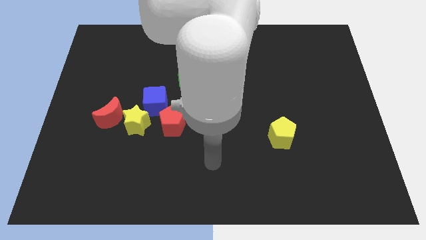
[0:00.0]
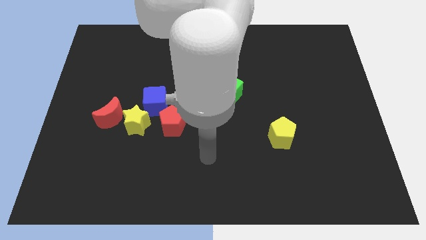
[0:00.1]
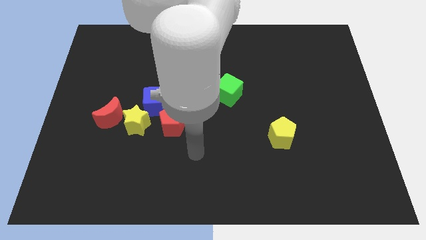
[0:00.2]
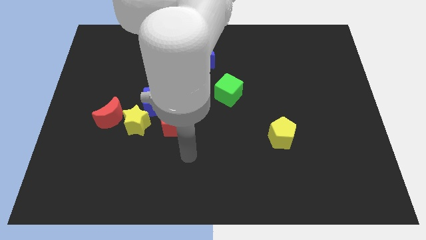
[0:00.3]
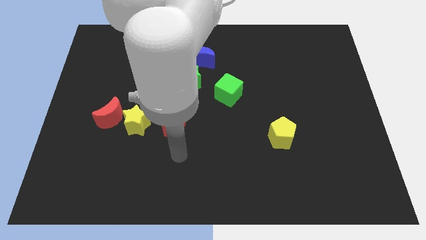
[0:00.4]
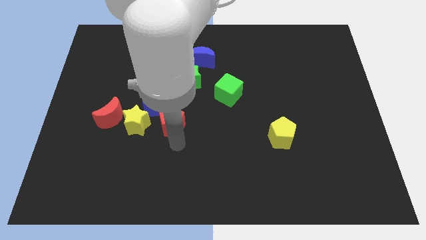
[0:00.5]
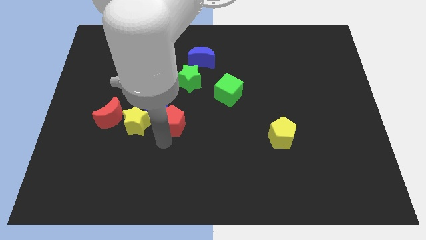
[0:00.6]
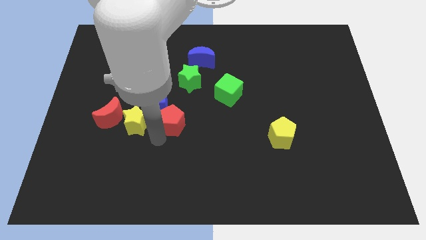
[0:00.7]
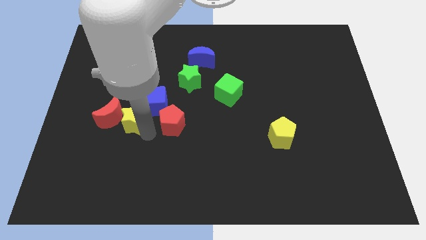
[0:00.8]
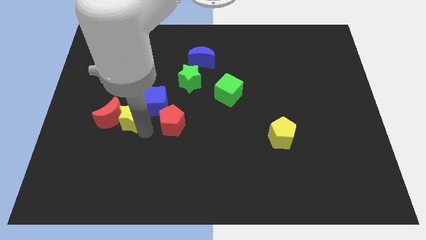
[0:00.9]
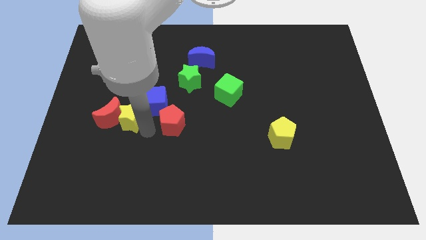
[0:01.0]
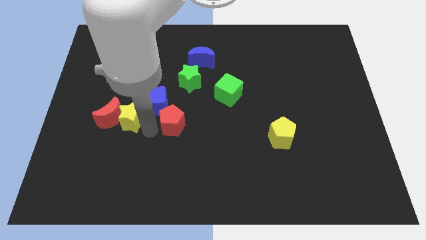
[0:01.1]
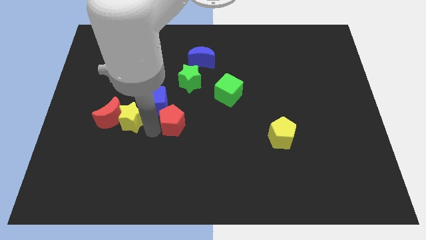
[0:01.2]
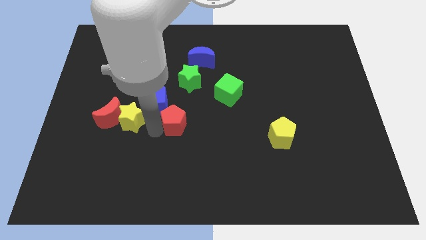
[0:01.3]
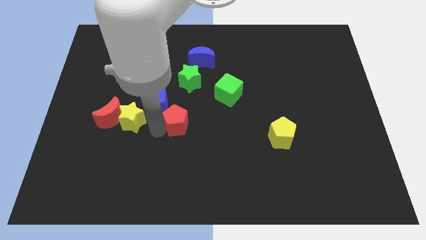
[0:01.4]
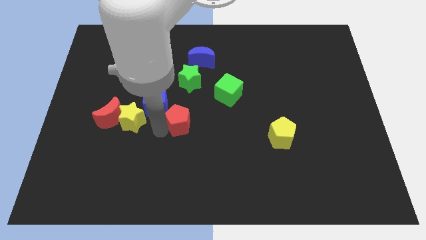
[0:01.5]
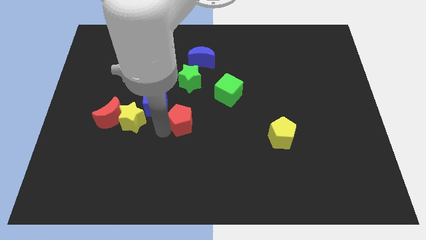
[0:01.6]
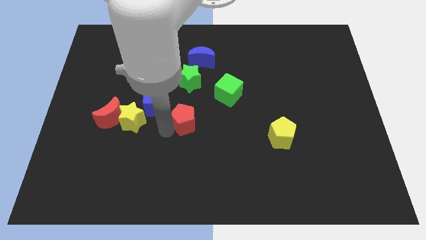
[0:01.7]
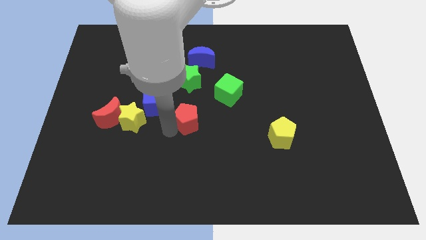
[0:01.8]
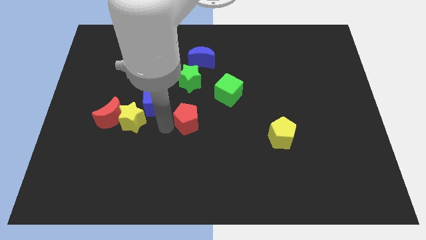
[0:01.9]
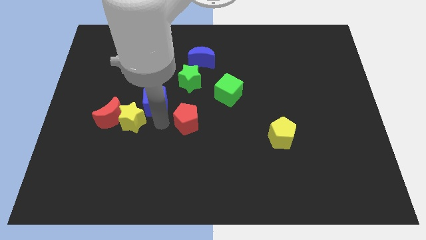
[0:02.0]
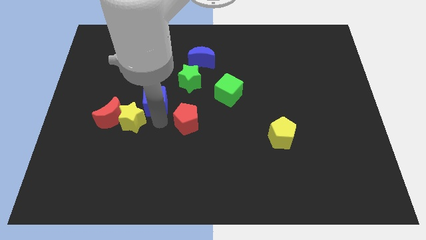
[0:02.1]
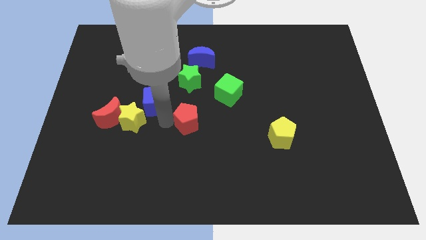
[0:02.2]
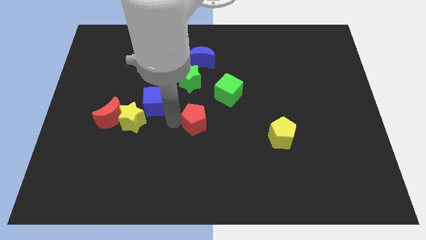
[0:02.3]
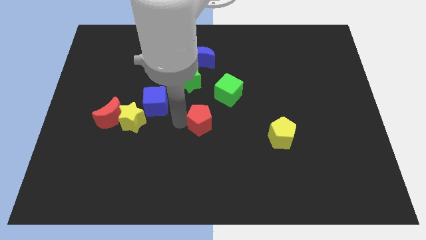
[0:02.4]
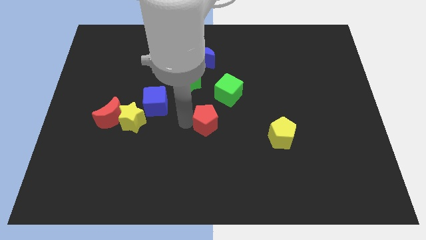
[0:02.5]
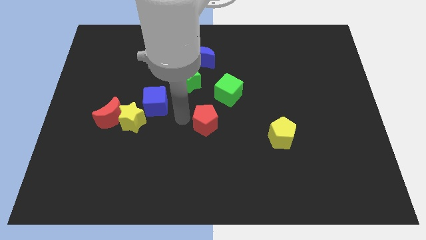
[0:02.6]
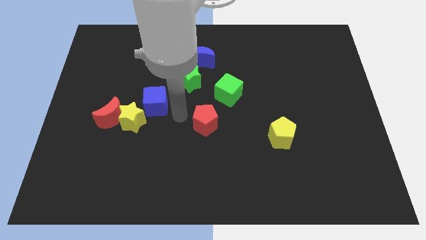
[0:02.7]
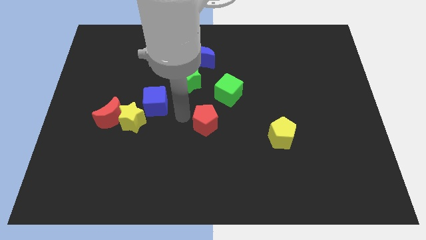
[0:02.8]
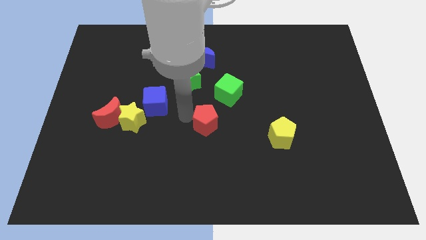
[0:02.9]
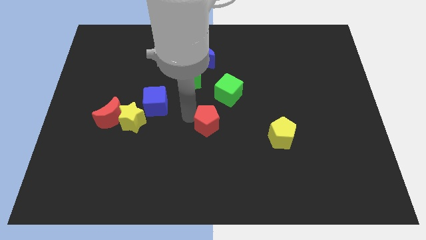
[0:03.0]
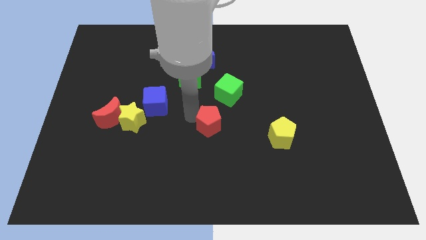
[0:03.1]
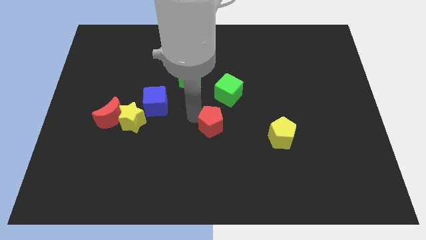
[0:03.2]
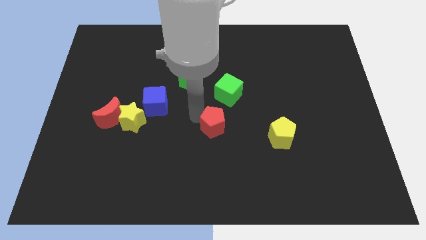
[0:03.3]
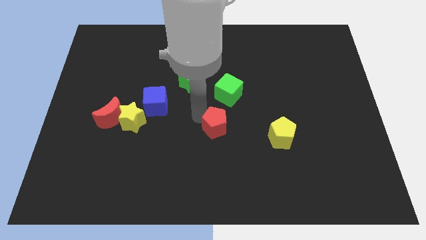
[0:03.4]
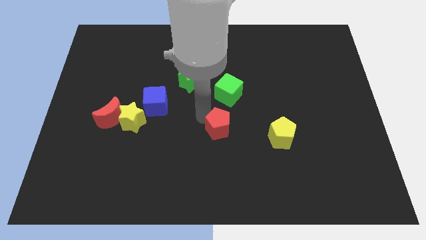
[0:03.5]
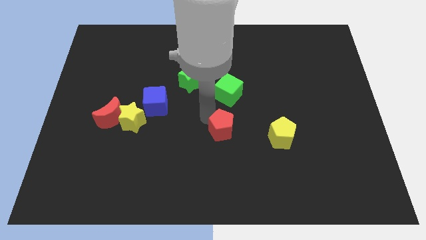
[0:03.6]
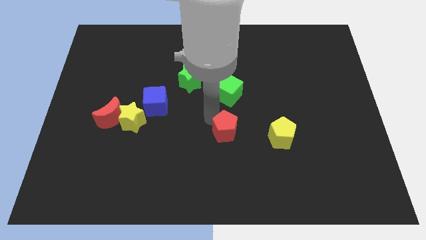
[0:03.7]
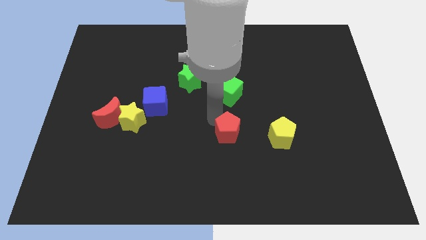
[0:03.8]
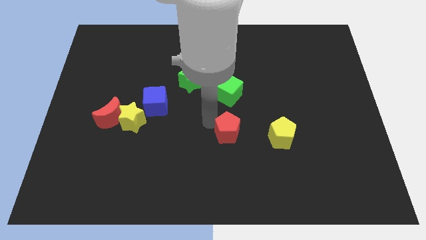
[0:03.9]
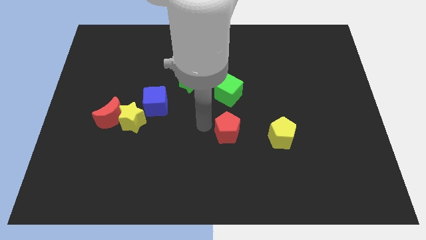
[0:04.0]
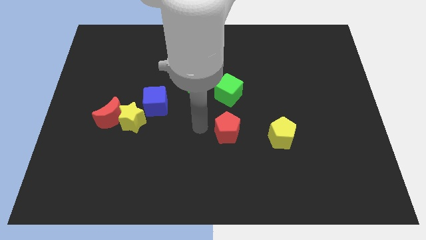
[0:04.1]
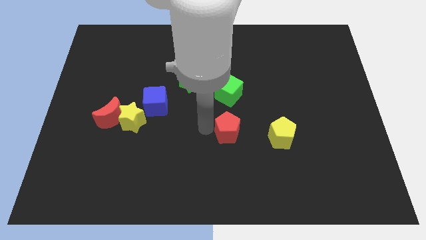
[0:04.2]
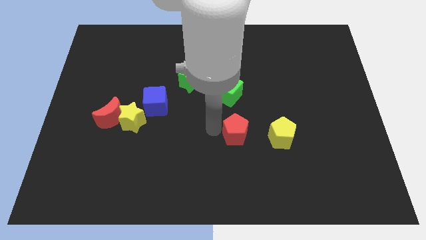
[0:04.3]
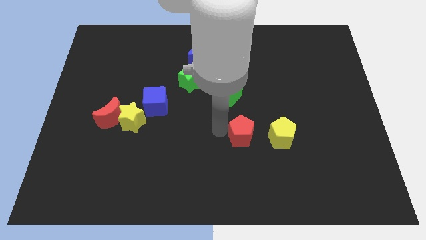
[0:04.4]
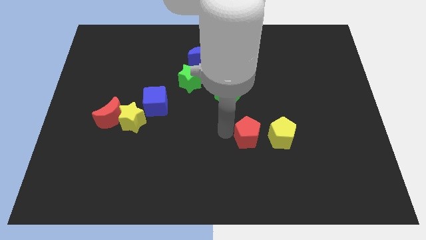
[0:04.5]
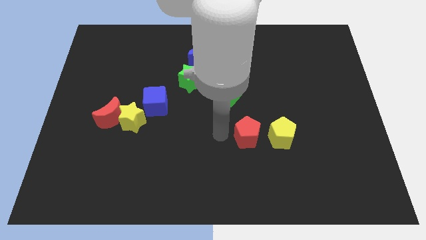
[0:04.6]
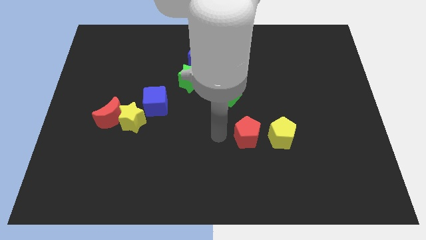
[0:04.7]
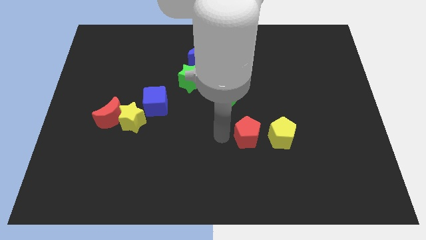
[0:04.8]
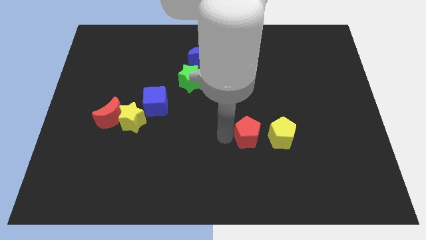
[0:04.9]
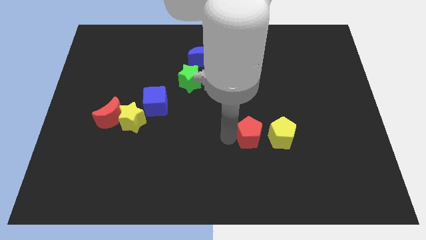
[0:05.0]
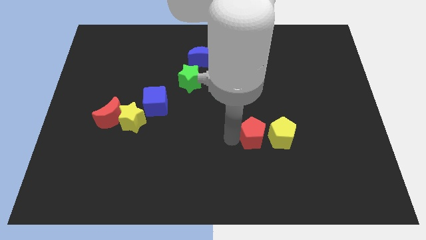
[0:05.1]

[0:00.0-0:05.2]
push the red pentagon to the yellow pentagon

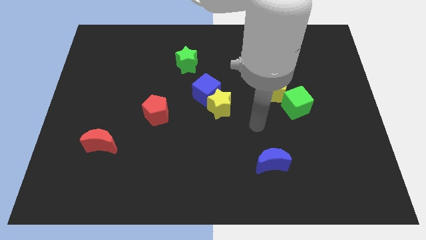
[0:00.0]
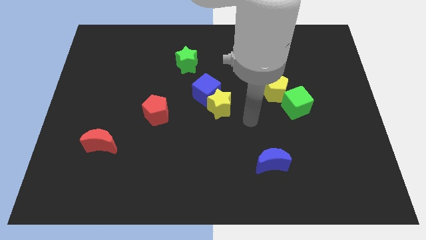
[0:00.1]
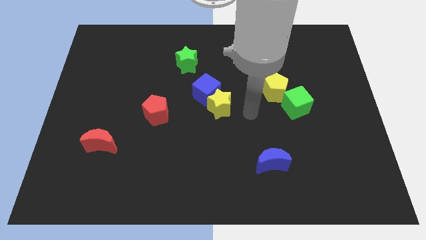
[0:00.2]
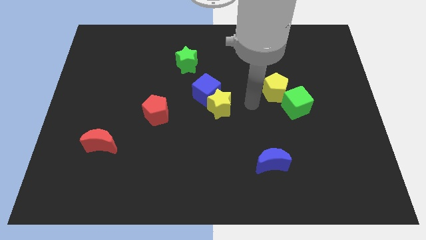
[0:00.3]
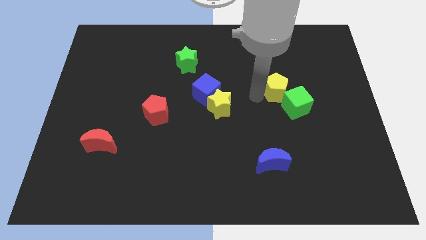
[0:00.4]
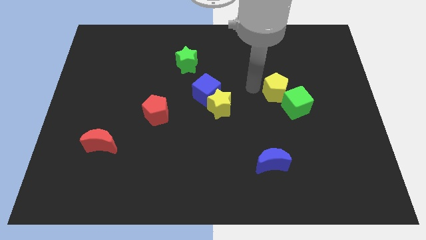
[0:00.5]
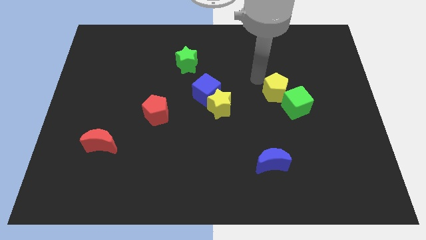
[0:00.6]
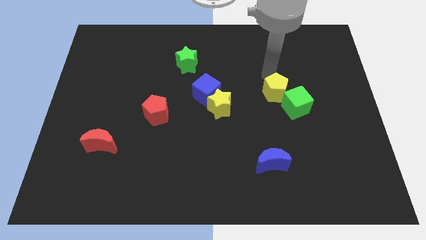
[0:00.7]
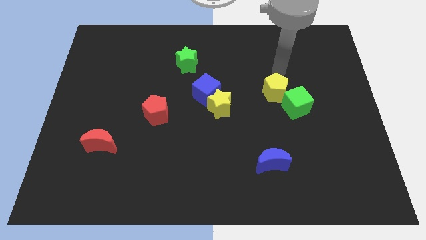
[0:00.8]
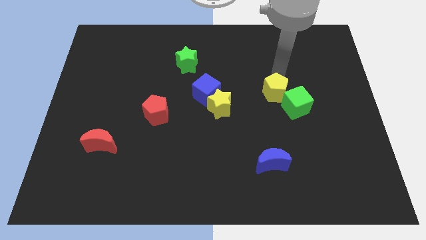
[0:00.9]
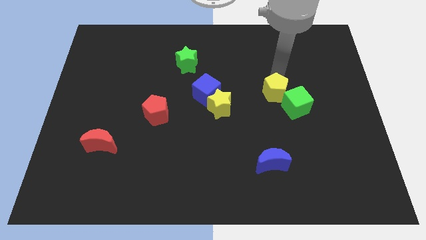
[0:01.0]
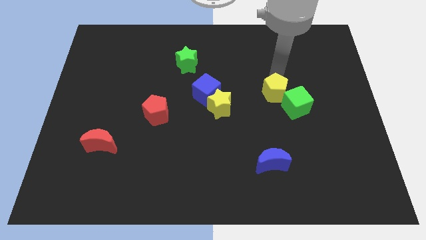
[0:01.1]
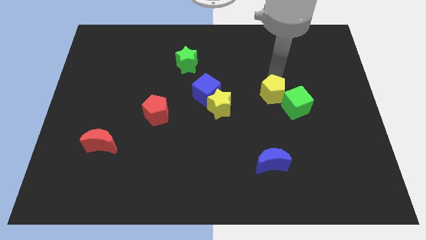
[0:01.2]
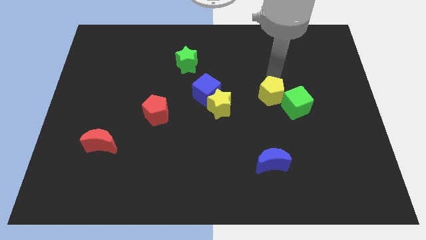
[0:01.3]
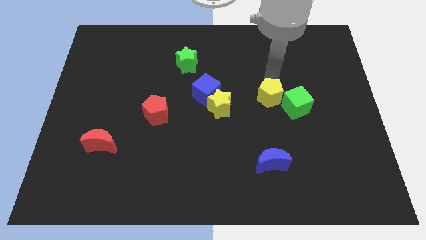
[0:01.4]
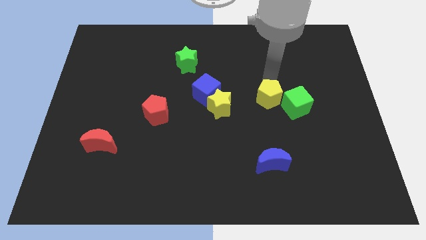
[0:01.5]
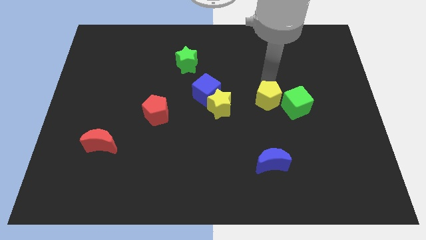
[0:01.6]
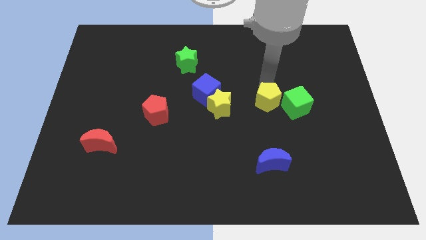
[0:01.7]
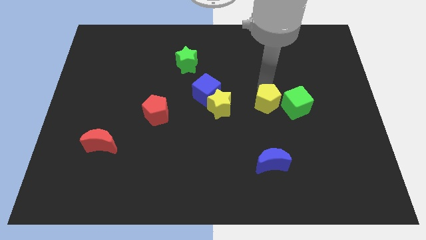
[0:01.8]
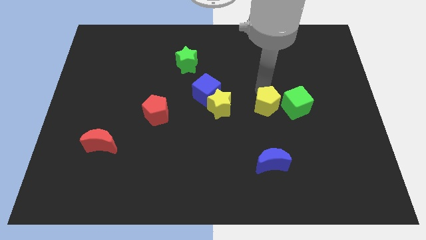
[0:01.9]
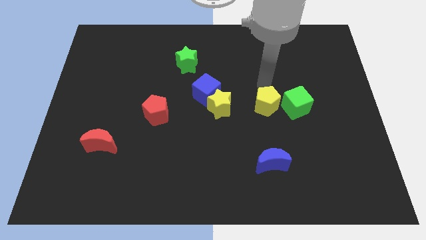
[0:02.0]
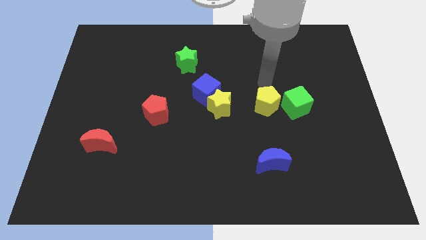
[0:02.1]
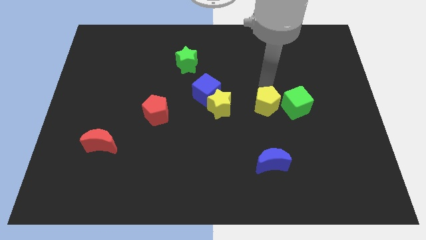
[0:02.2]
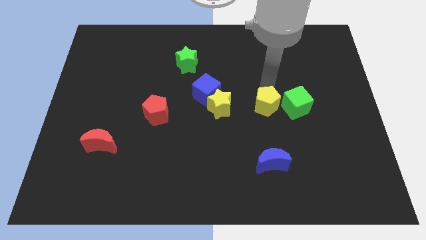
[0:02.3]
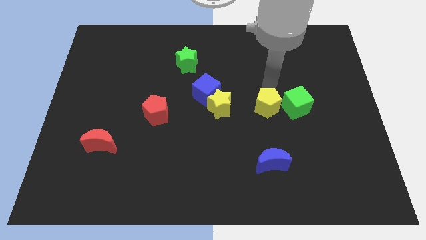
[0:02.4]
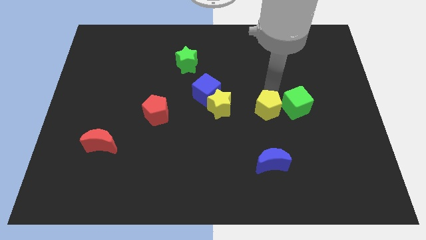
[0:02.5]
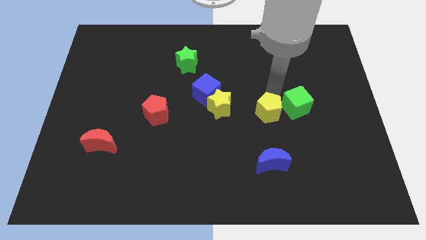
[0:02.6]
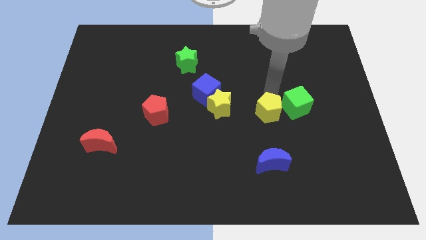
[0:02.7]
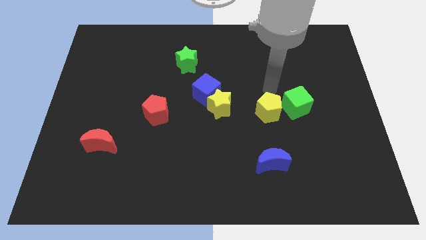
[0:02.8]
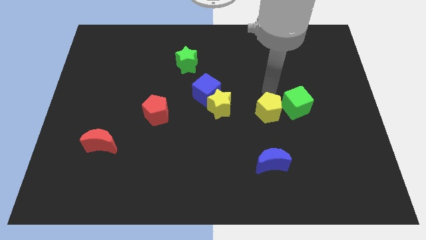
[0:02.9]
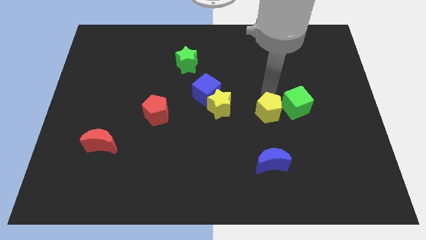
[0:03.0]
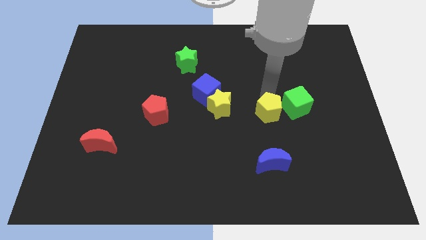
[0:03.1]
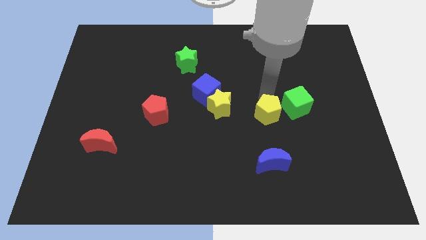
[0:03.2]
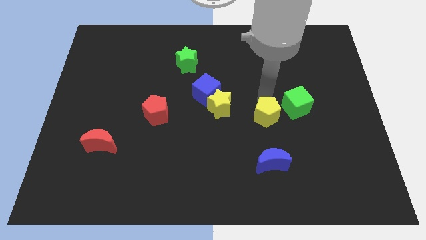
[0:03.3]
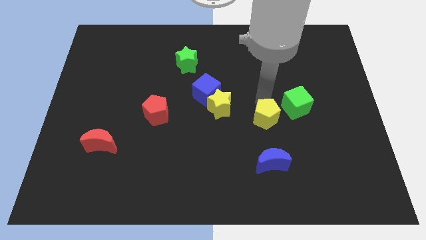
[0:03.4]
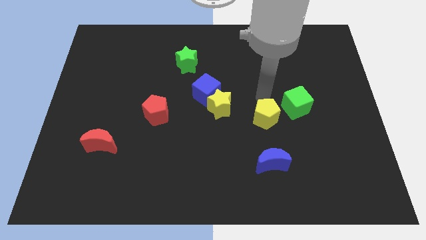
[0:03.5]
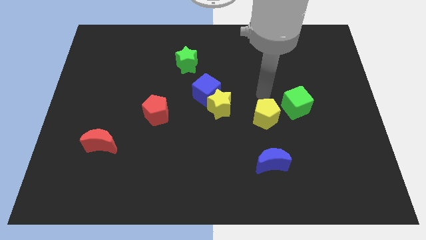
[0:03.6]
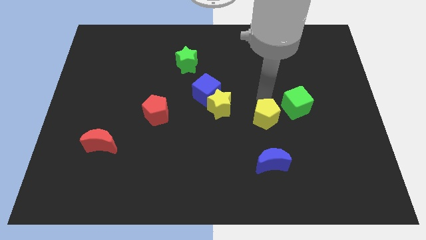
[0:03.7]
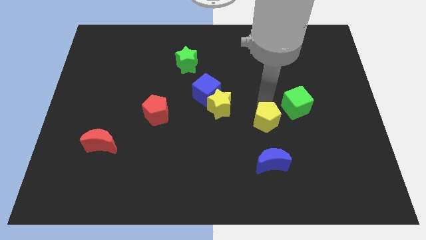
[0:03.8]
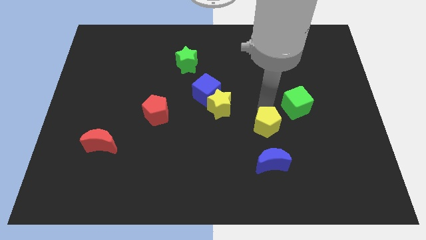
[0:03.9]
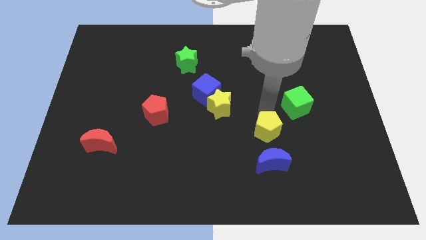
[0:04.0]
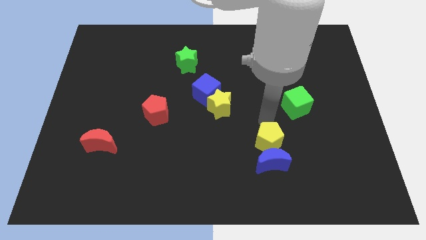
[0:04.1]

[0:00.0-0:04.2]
push the yellow pentagon close to the blue moon
